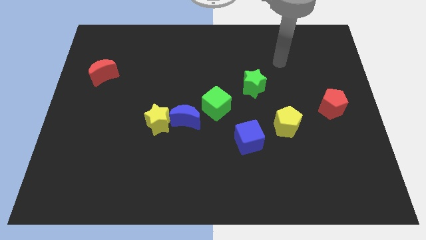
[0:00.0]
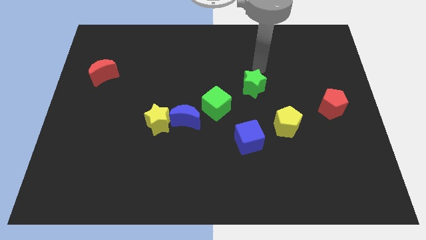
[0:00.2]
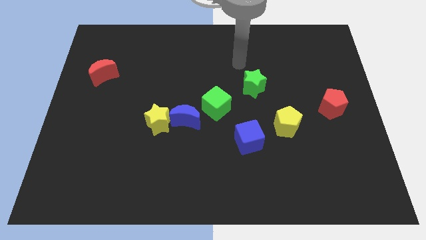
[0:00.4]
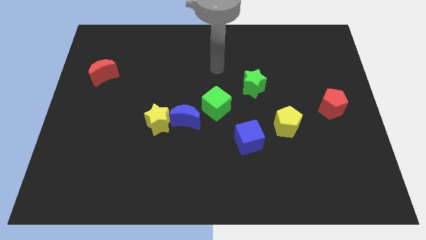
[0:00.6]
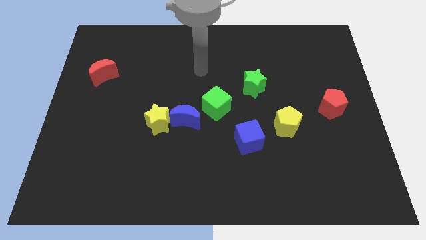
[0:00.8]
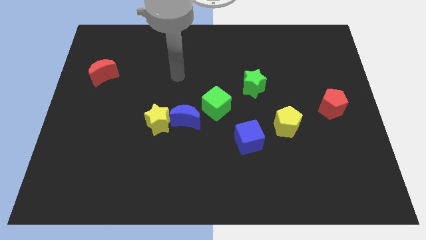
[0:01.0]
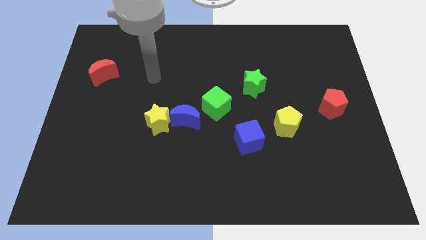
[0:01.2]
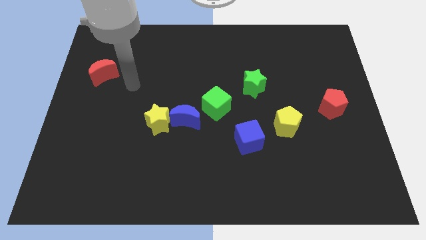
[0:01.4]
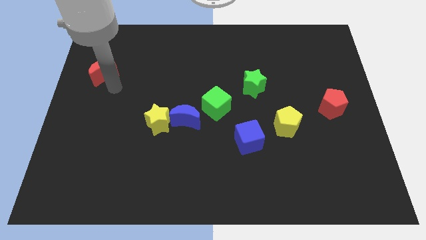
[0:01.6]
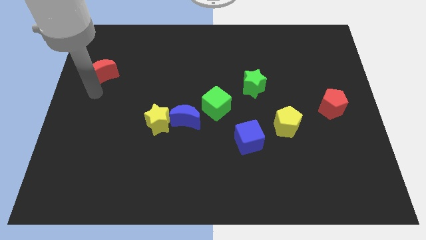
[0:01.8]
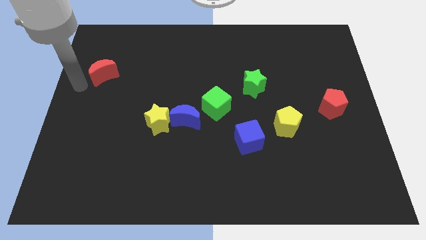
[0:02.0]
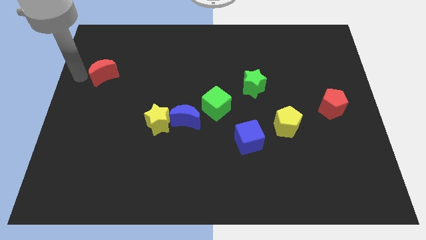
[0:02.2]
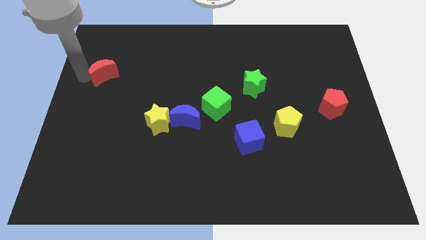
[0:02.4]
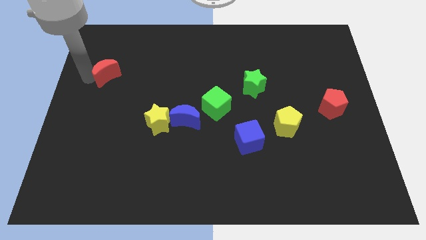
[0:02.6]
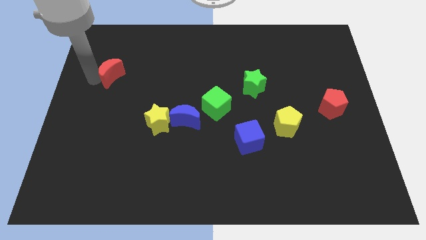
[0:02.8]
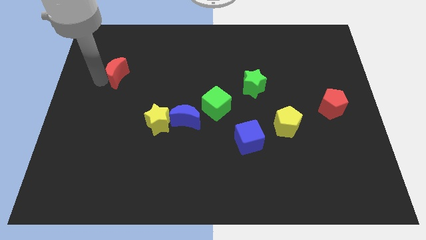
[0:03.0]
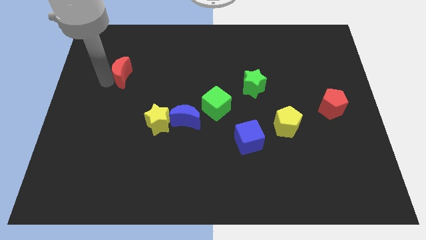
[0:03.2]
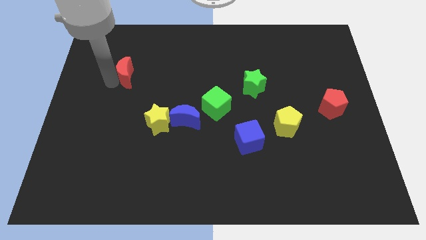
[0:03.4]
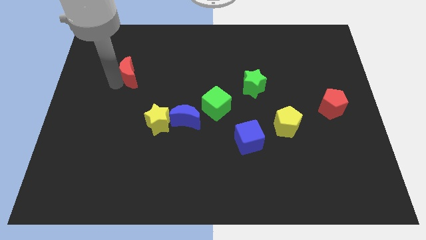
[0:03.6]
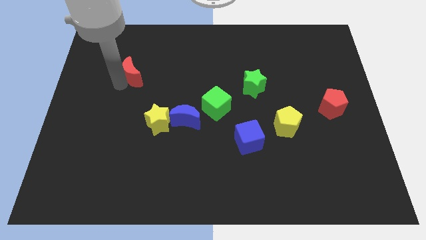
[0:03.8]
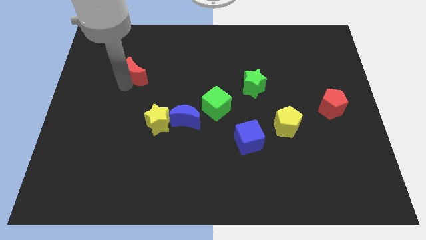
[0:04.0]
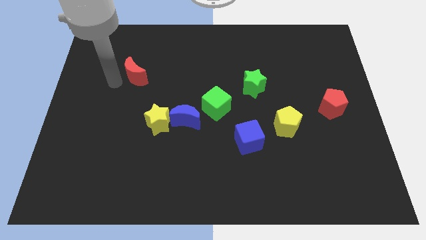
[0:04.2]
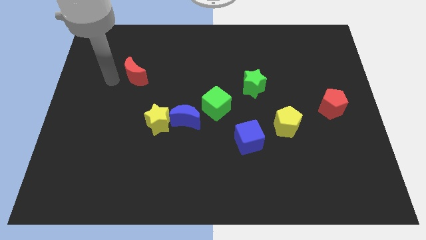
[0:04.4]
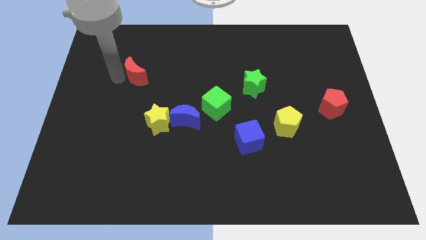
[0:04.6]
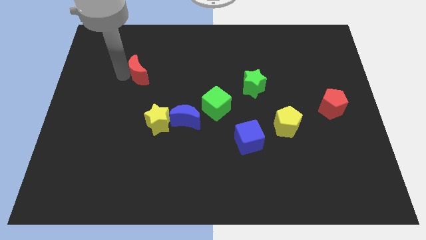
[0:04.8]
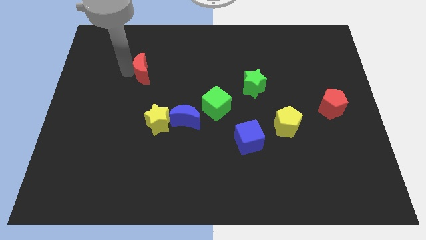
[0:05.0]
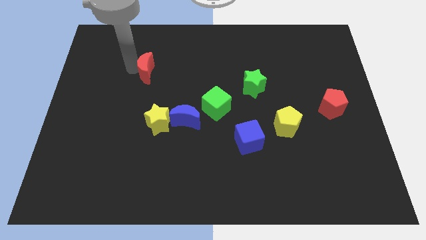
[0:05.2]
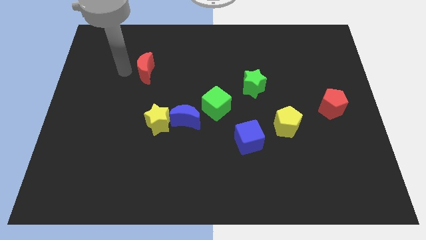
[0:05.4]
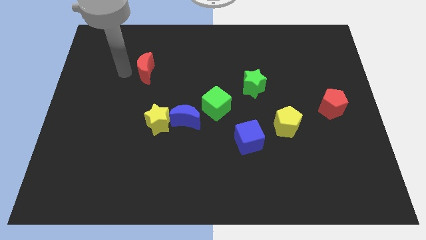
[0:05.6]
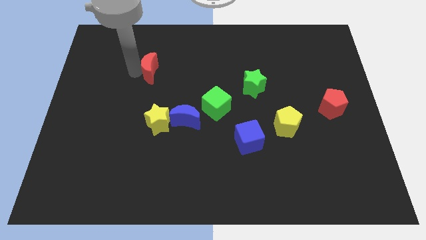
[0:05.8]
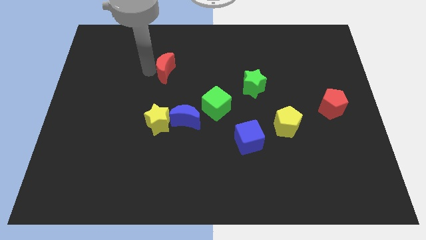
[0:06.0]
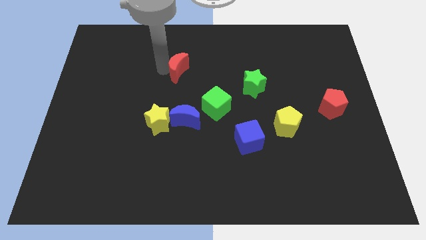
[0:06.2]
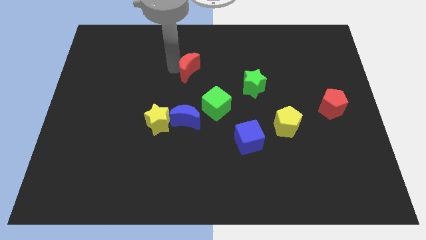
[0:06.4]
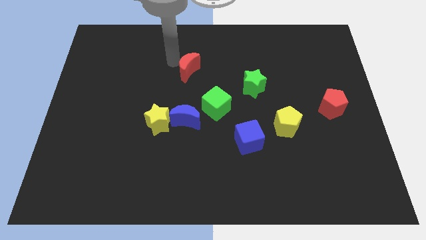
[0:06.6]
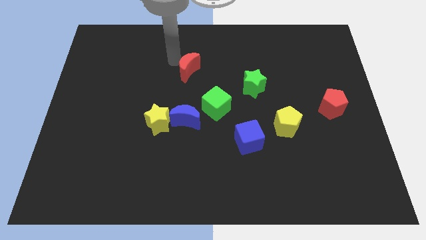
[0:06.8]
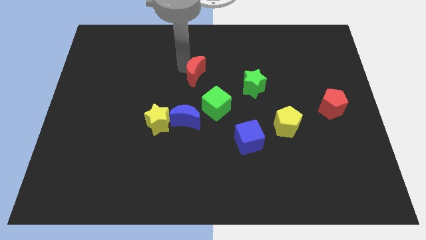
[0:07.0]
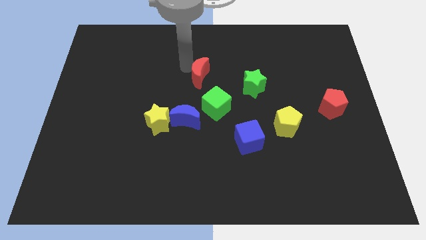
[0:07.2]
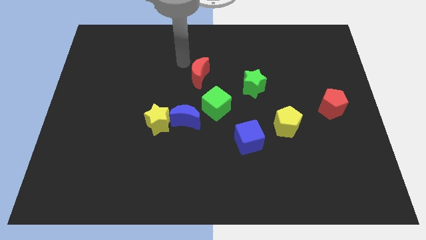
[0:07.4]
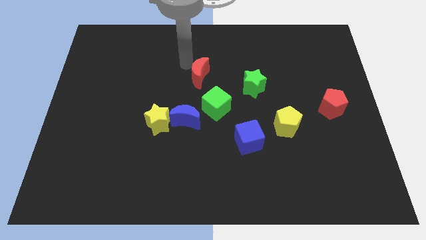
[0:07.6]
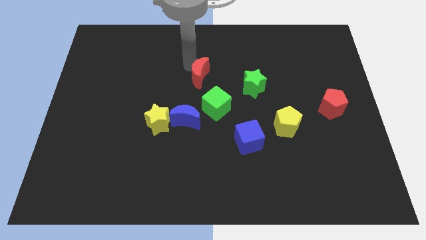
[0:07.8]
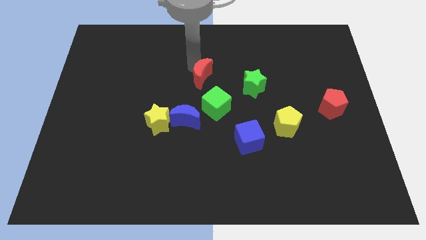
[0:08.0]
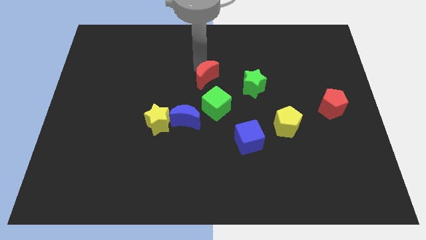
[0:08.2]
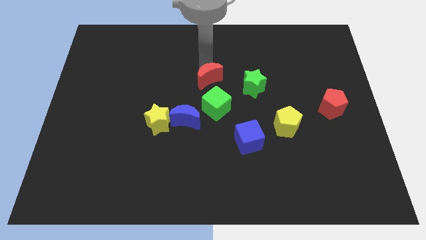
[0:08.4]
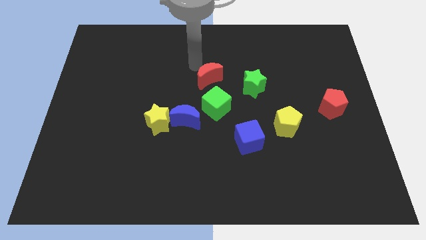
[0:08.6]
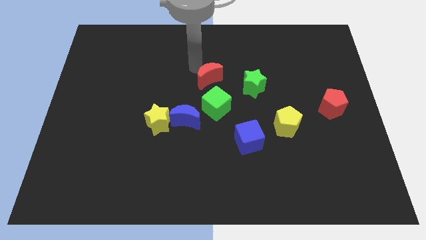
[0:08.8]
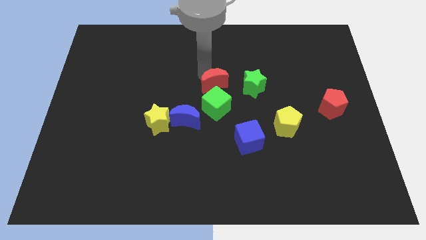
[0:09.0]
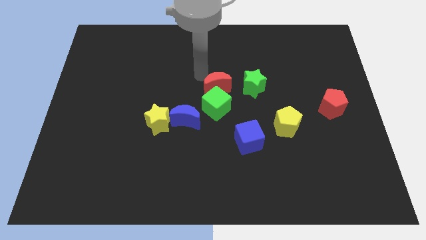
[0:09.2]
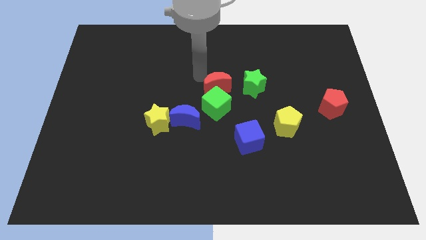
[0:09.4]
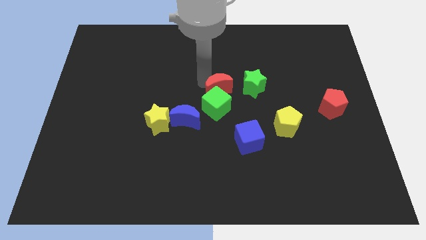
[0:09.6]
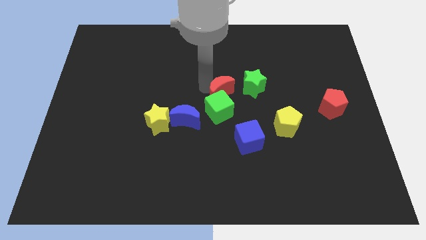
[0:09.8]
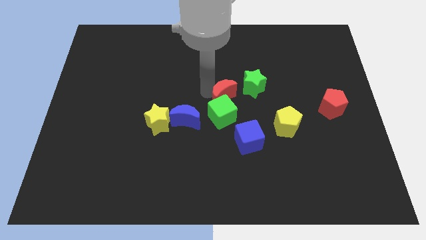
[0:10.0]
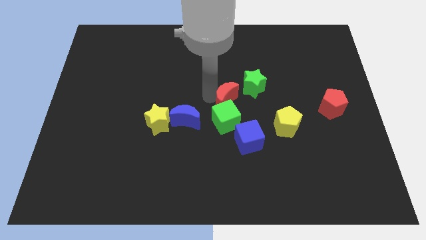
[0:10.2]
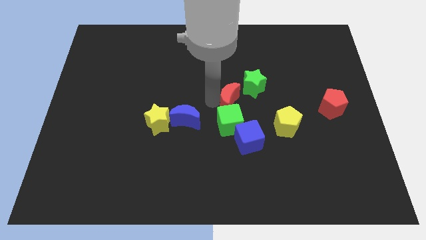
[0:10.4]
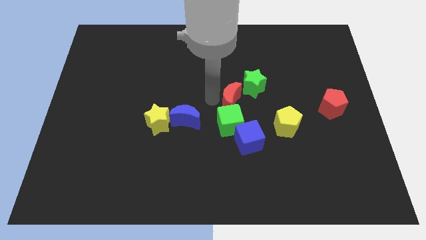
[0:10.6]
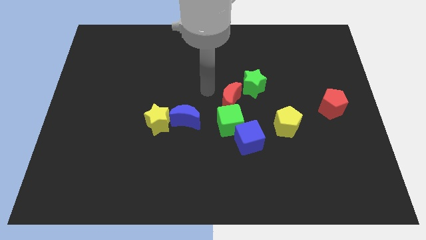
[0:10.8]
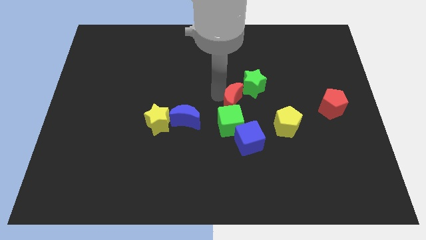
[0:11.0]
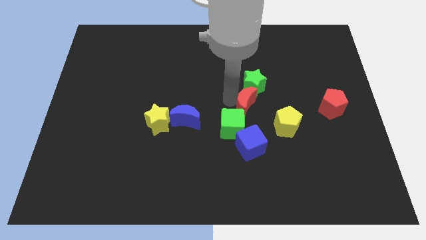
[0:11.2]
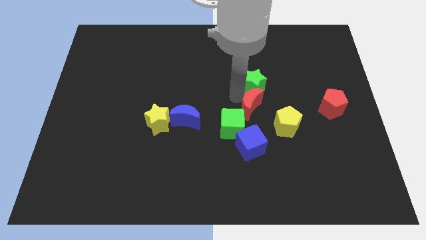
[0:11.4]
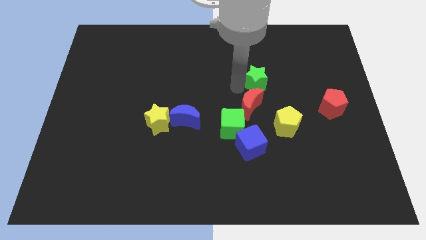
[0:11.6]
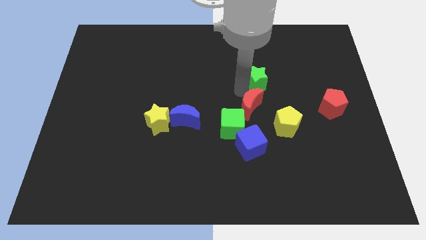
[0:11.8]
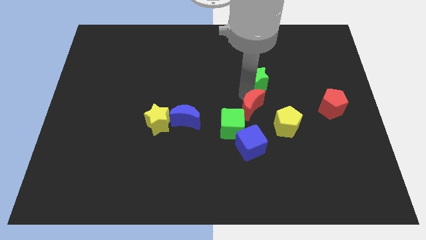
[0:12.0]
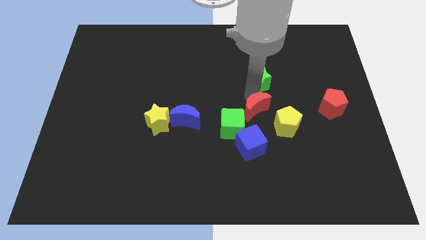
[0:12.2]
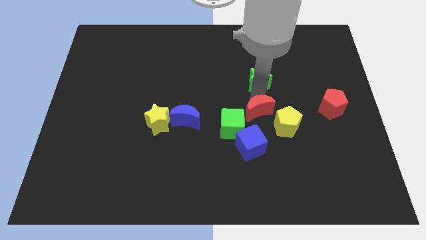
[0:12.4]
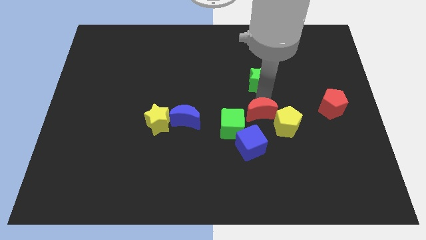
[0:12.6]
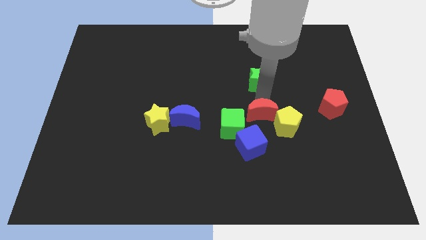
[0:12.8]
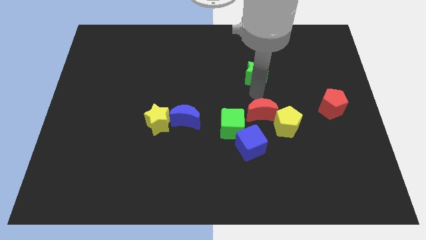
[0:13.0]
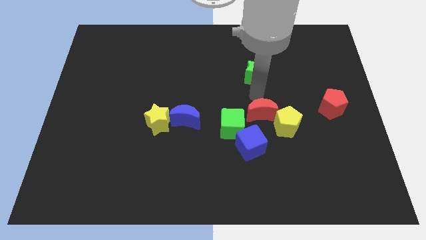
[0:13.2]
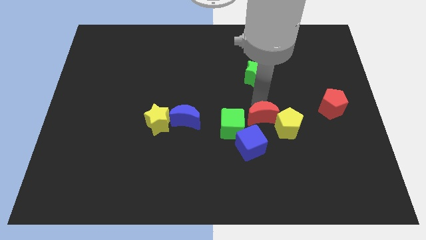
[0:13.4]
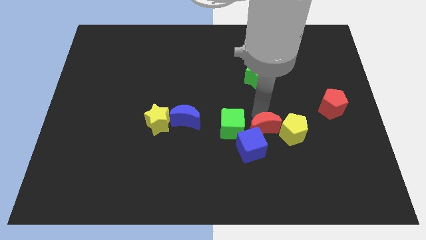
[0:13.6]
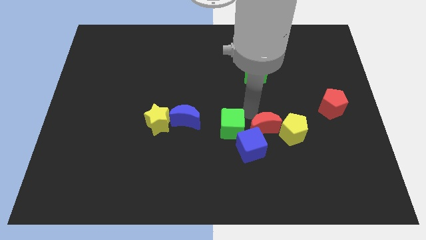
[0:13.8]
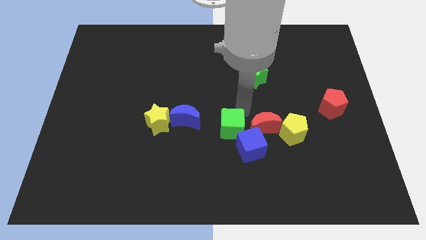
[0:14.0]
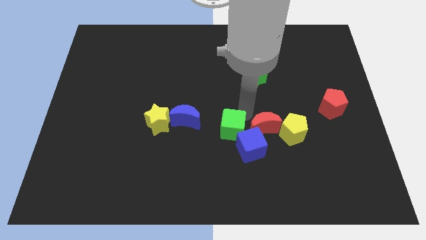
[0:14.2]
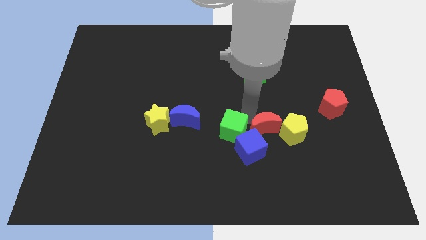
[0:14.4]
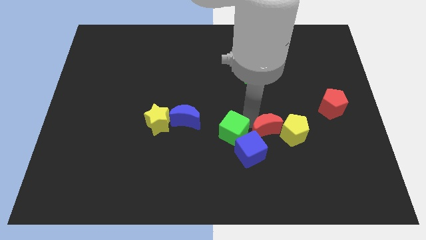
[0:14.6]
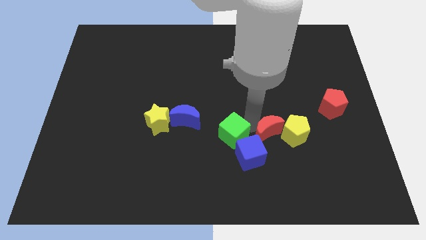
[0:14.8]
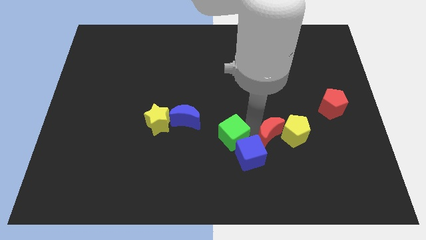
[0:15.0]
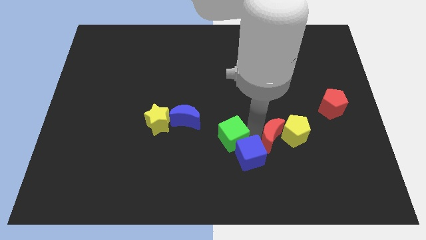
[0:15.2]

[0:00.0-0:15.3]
push the red moon to the right side of the blue cube

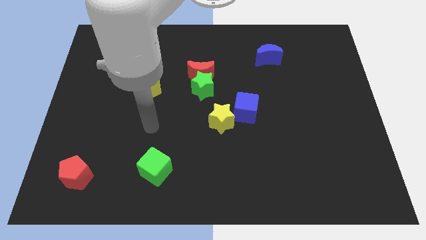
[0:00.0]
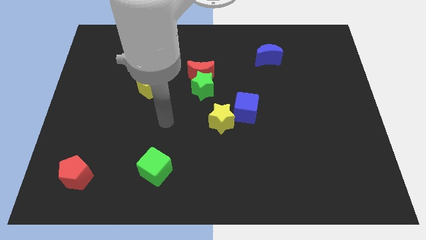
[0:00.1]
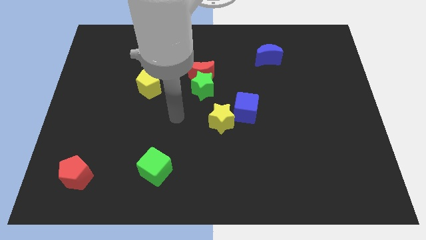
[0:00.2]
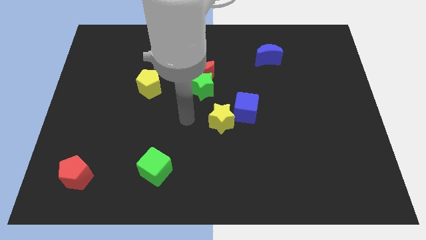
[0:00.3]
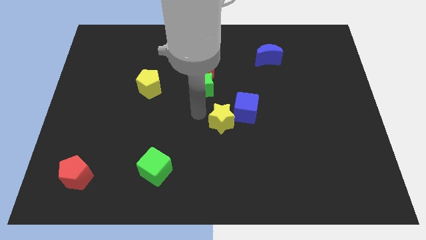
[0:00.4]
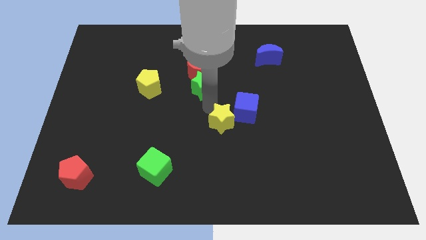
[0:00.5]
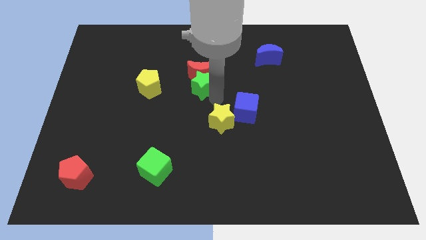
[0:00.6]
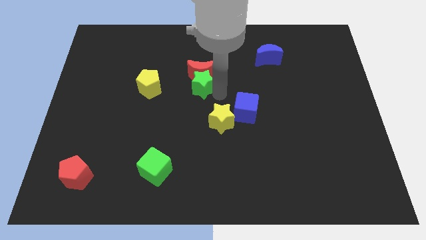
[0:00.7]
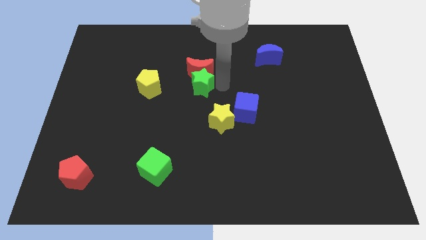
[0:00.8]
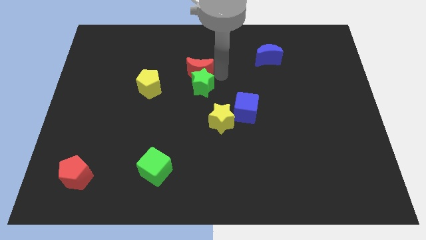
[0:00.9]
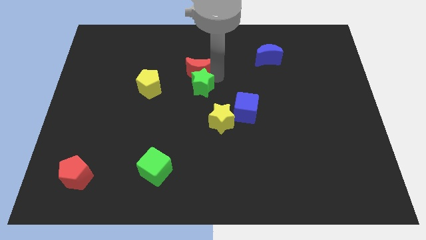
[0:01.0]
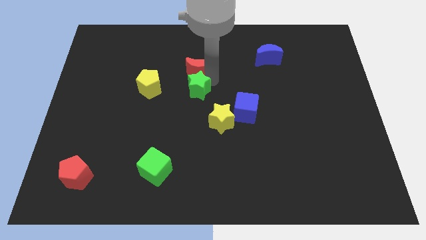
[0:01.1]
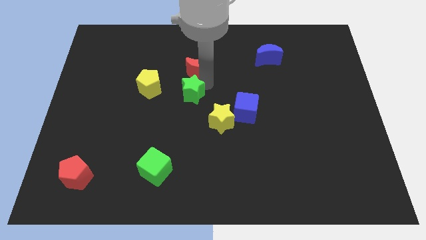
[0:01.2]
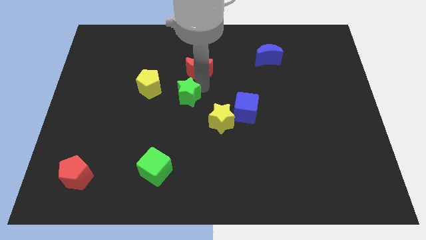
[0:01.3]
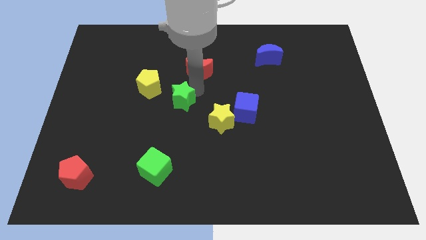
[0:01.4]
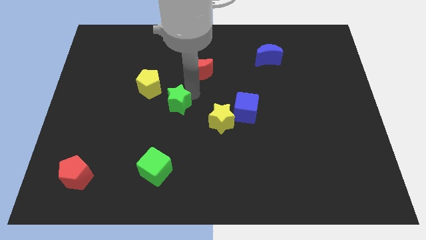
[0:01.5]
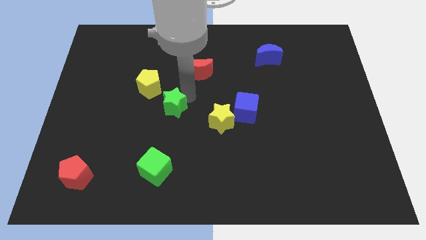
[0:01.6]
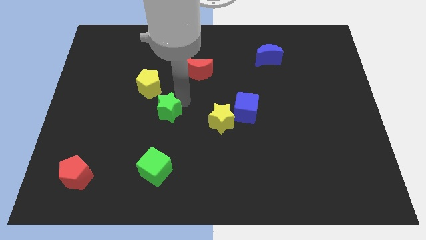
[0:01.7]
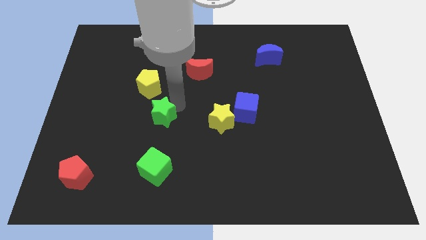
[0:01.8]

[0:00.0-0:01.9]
put the green star to the bottom of the yellow pentagon
